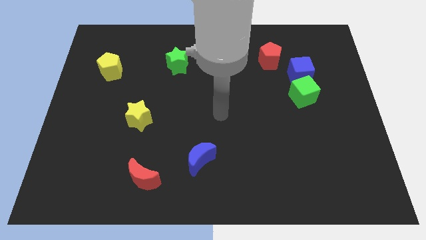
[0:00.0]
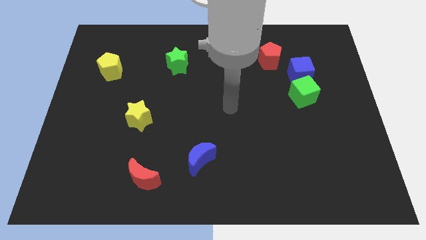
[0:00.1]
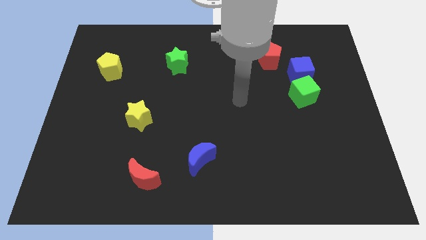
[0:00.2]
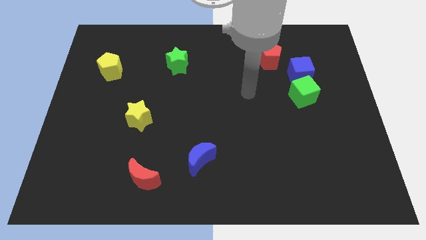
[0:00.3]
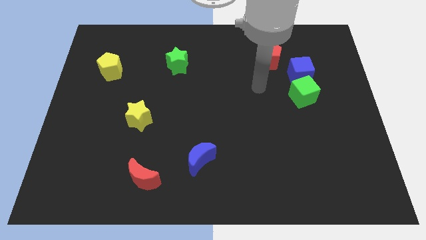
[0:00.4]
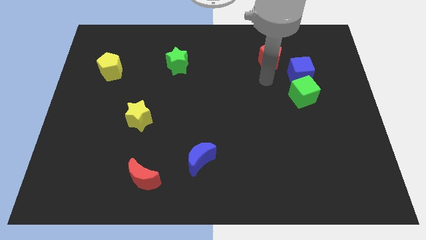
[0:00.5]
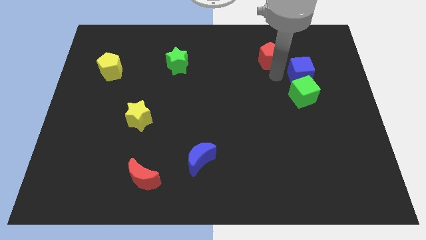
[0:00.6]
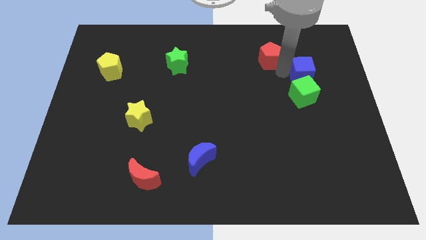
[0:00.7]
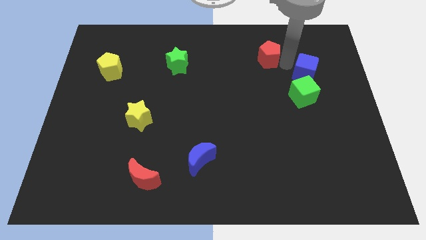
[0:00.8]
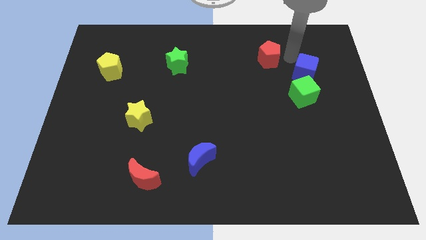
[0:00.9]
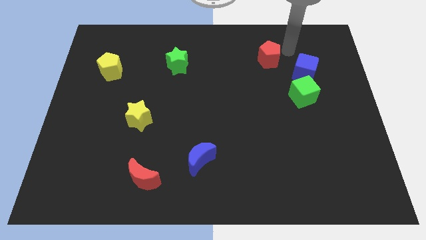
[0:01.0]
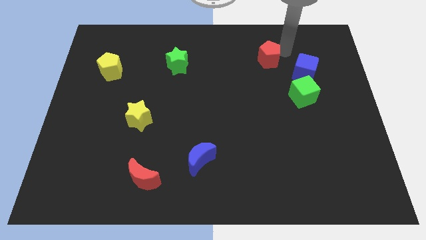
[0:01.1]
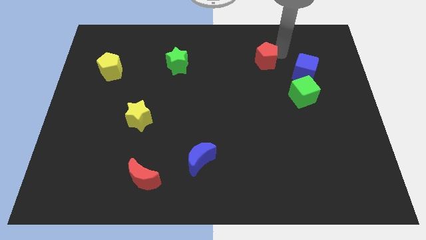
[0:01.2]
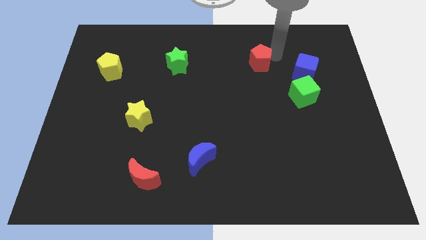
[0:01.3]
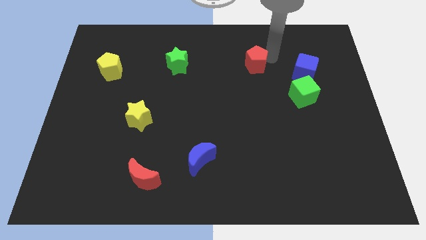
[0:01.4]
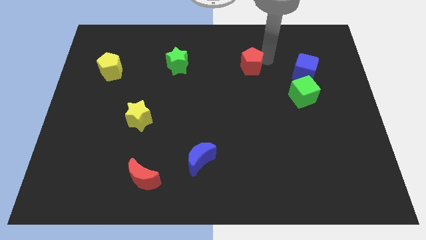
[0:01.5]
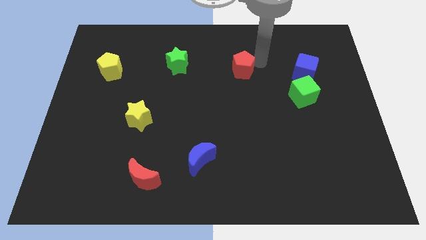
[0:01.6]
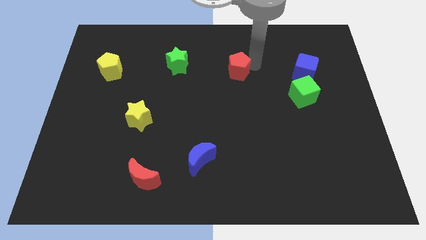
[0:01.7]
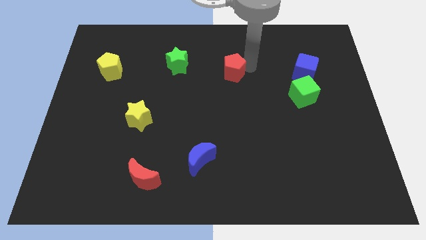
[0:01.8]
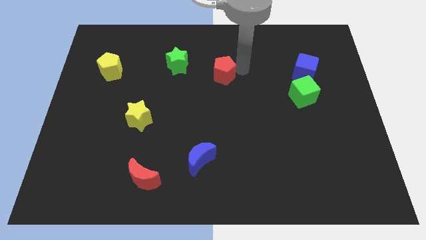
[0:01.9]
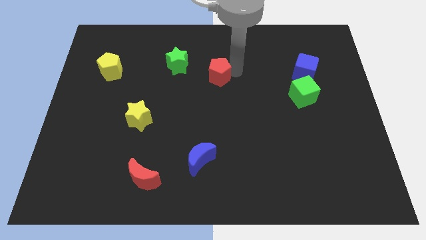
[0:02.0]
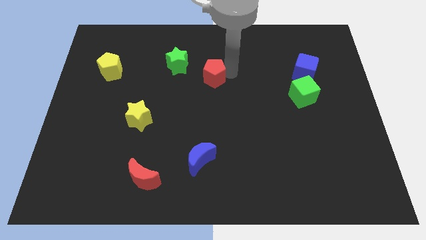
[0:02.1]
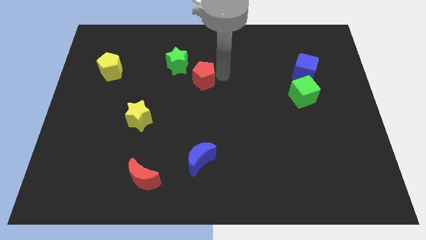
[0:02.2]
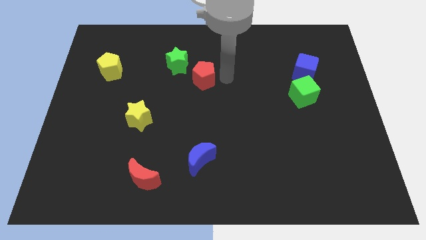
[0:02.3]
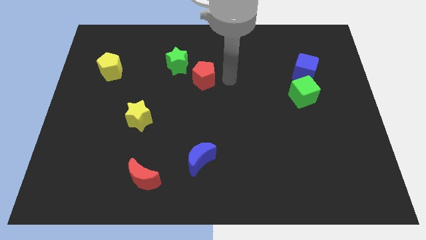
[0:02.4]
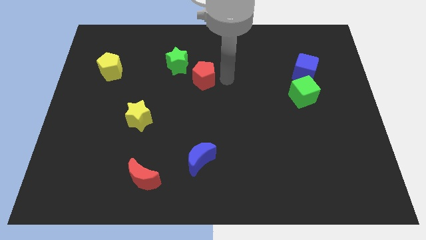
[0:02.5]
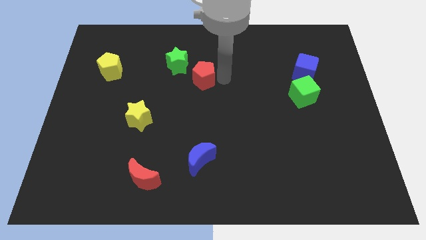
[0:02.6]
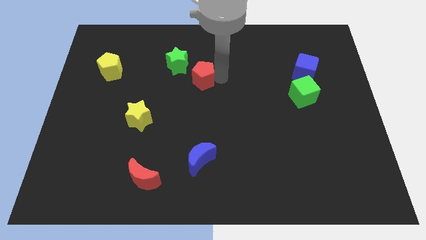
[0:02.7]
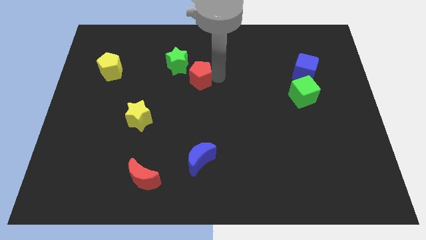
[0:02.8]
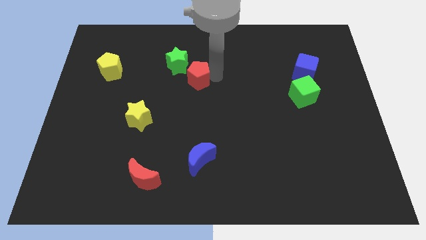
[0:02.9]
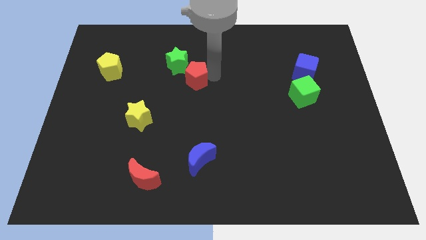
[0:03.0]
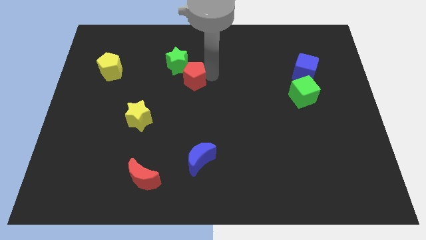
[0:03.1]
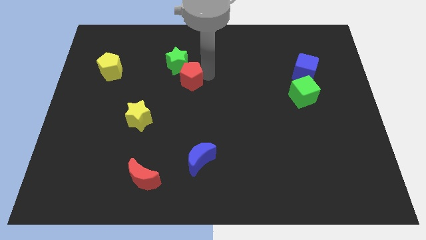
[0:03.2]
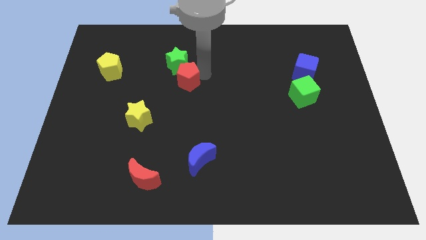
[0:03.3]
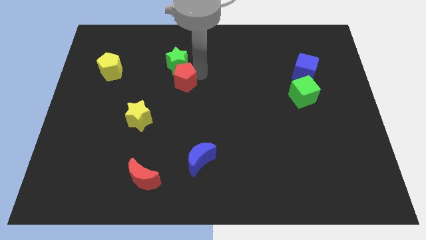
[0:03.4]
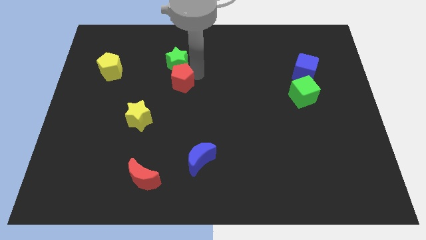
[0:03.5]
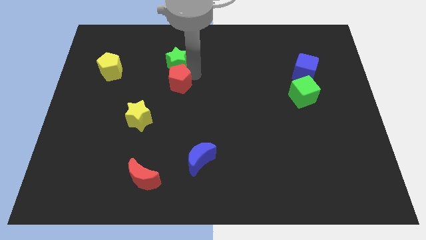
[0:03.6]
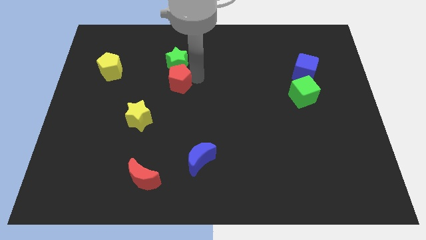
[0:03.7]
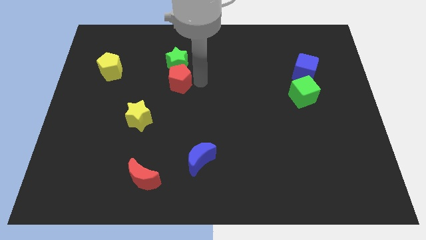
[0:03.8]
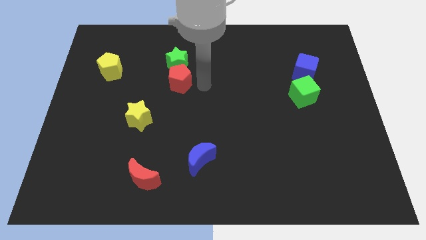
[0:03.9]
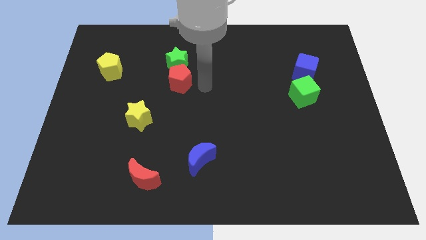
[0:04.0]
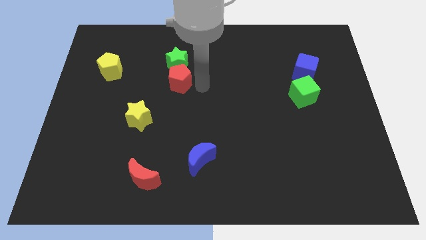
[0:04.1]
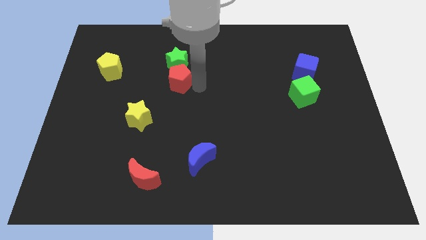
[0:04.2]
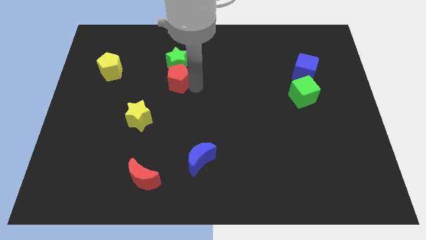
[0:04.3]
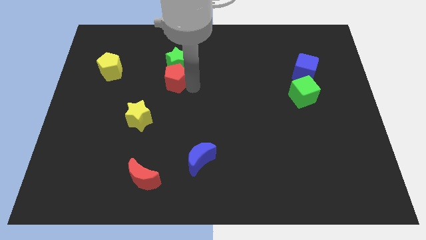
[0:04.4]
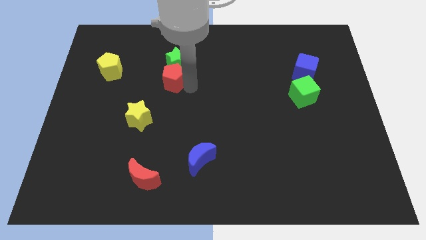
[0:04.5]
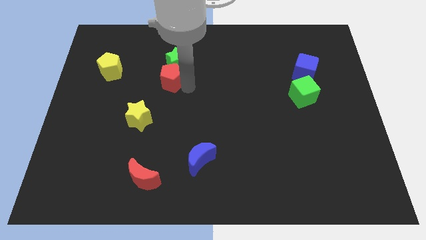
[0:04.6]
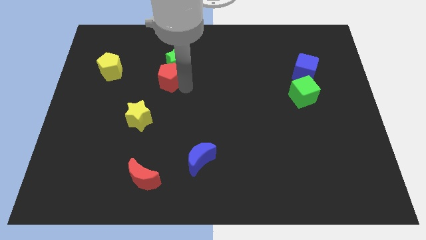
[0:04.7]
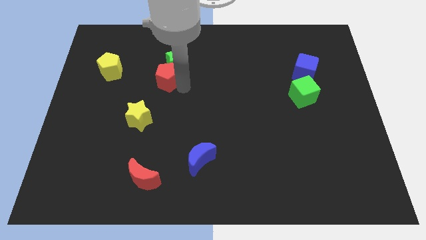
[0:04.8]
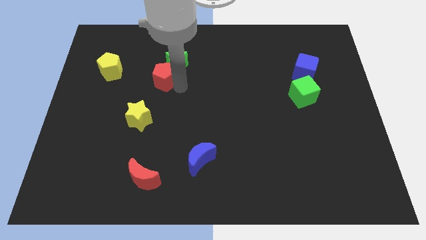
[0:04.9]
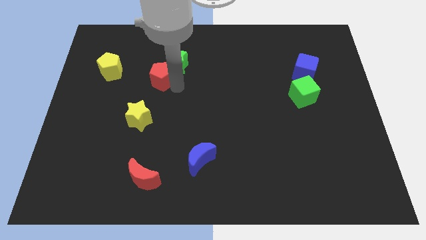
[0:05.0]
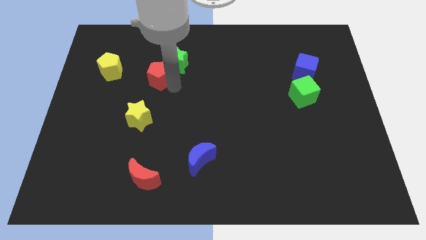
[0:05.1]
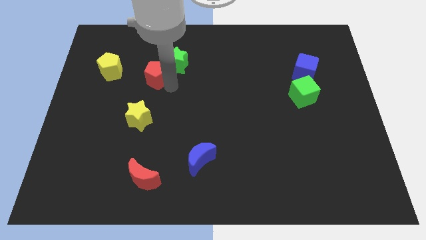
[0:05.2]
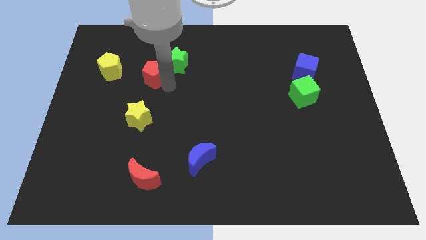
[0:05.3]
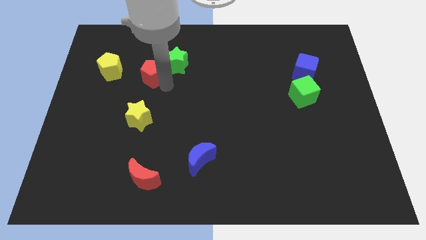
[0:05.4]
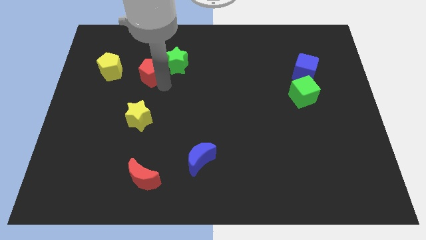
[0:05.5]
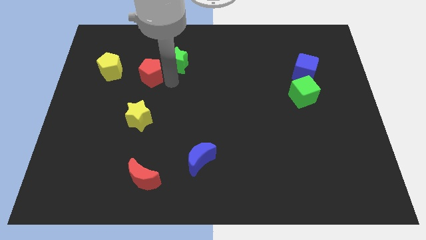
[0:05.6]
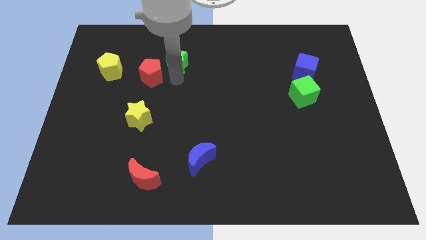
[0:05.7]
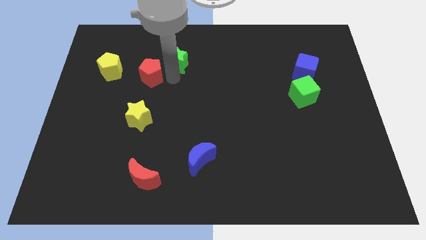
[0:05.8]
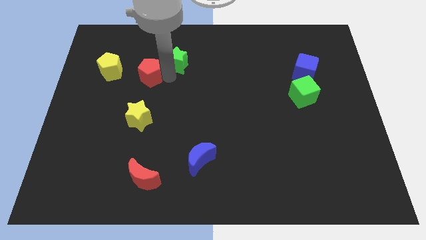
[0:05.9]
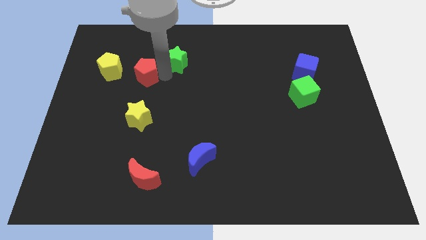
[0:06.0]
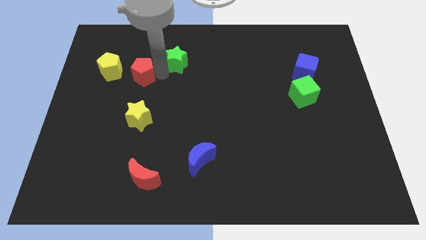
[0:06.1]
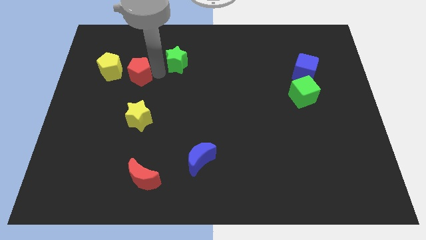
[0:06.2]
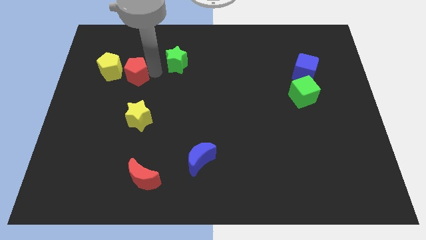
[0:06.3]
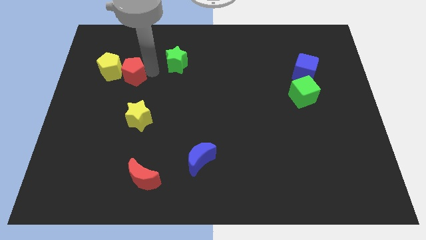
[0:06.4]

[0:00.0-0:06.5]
move the red pentagon towards the yellow pentagon

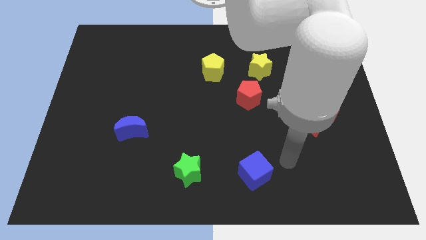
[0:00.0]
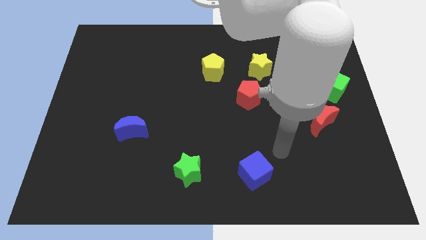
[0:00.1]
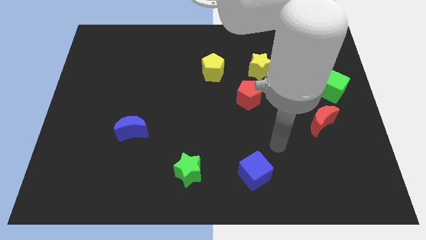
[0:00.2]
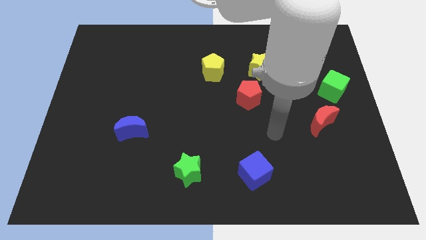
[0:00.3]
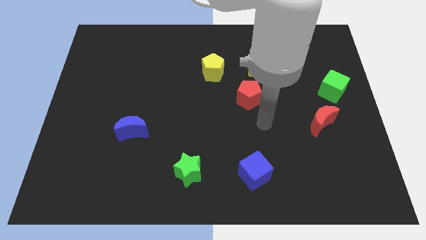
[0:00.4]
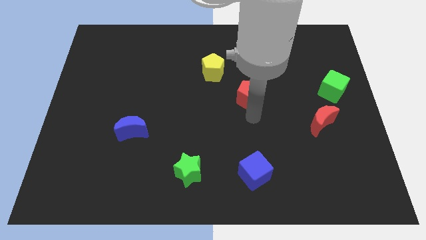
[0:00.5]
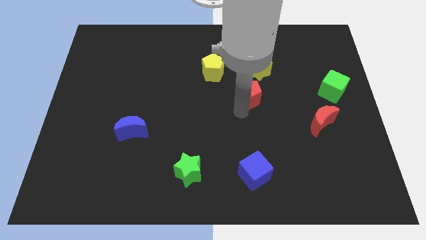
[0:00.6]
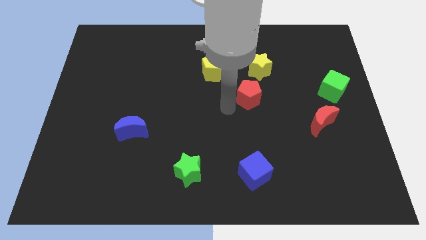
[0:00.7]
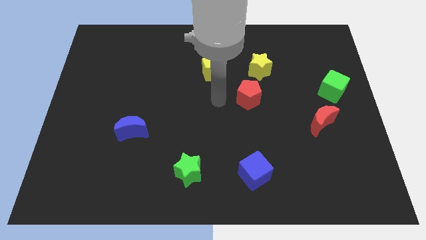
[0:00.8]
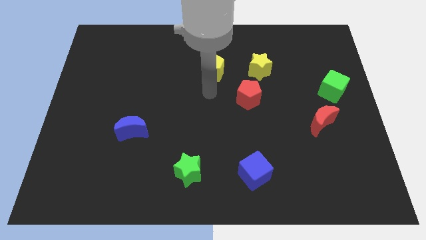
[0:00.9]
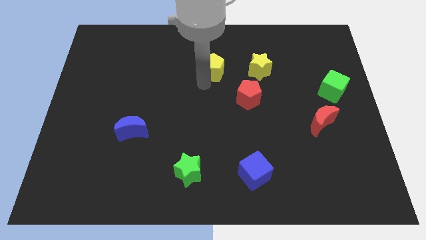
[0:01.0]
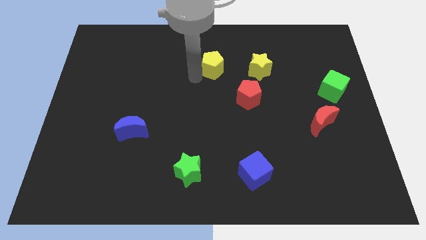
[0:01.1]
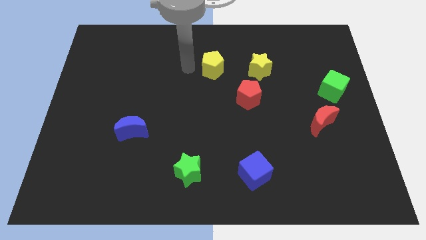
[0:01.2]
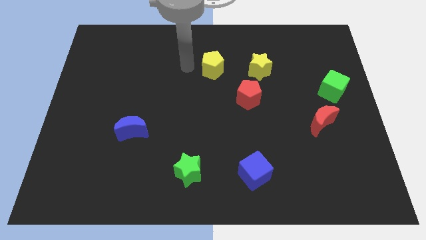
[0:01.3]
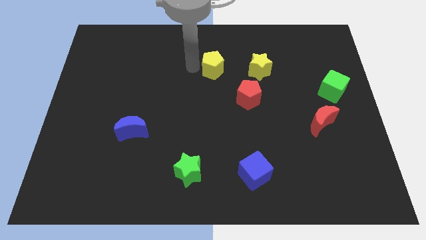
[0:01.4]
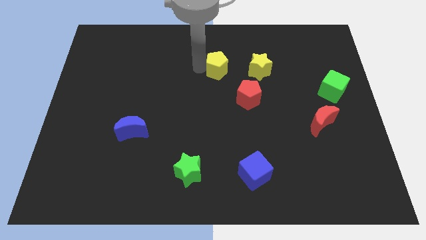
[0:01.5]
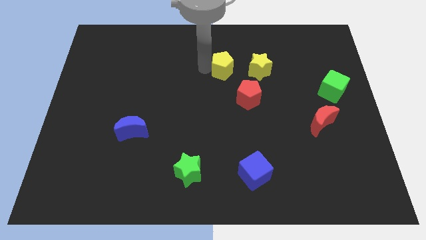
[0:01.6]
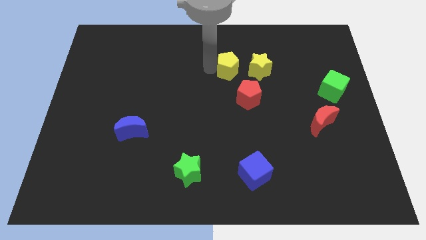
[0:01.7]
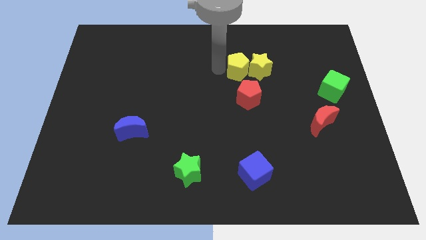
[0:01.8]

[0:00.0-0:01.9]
move the yellow pentagon close to the yellow star
